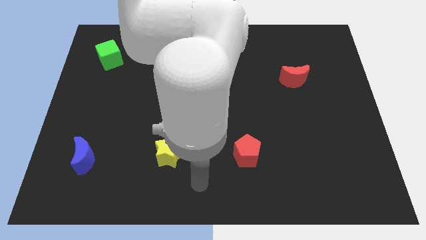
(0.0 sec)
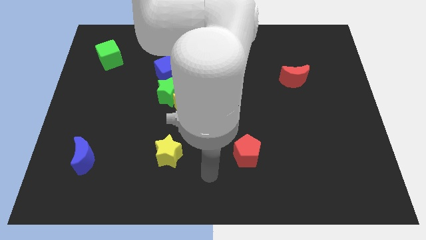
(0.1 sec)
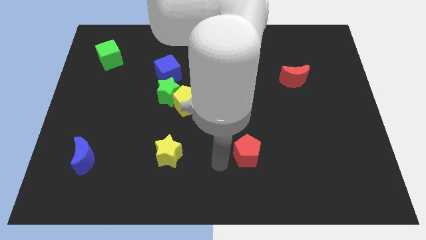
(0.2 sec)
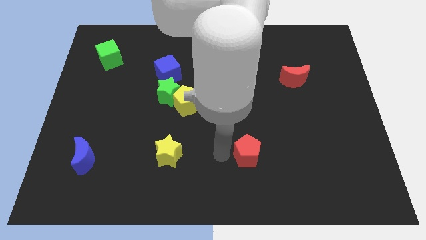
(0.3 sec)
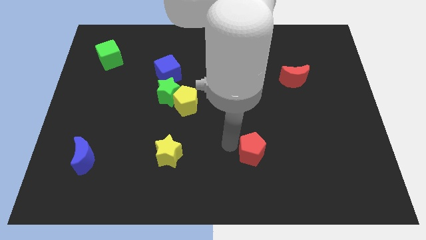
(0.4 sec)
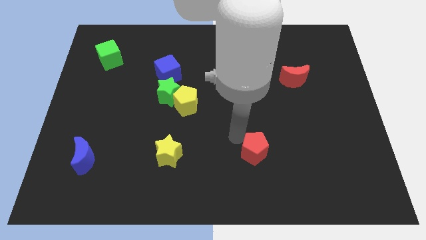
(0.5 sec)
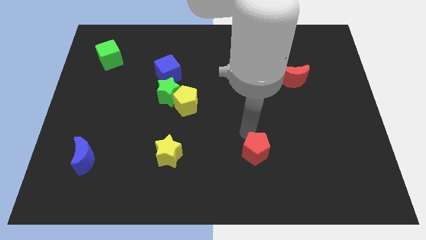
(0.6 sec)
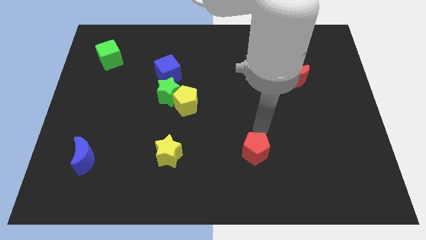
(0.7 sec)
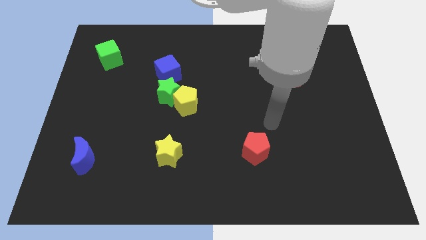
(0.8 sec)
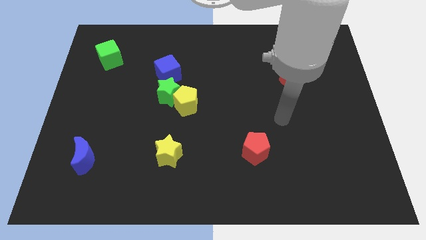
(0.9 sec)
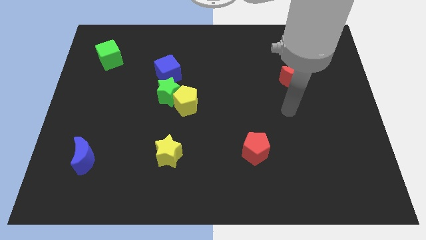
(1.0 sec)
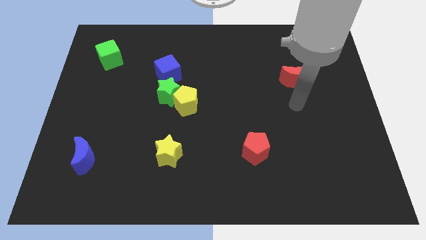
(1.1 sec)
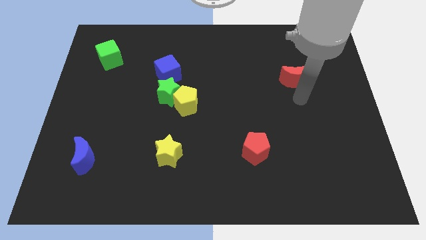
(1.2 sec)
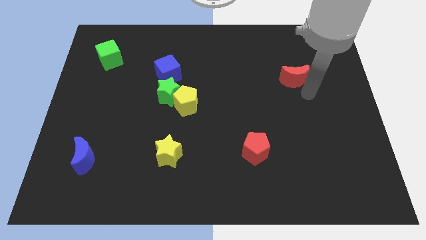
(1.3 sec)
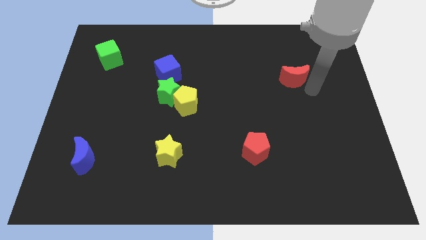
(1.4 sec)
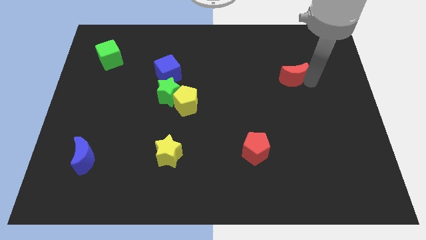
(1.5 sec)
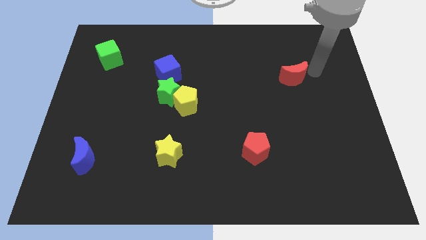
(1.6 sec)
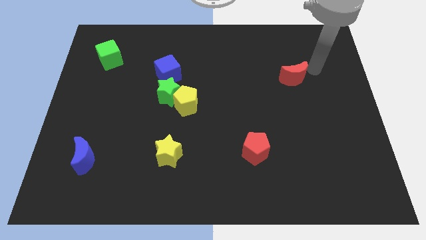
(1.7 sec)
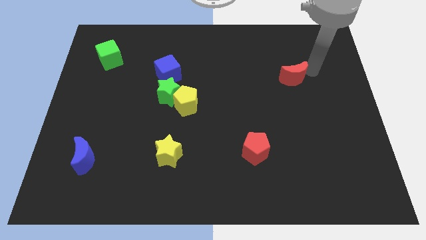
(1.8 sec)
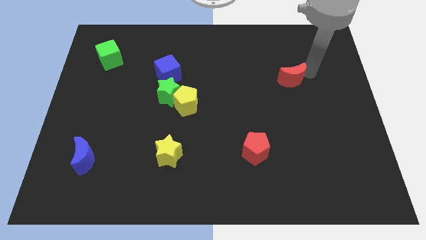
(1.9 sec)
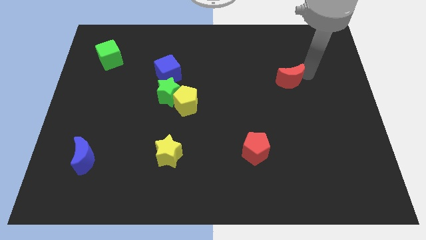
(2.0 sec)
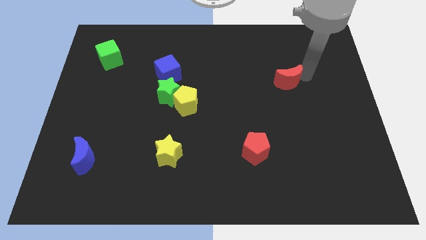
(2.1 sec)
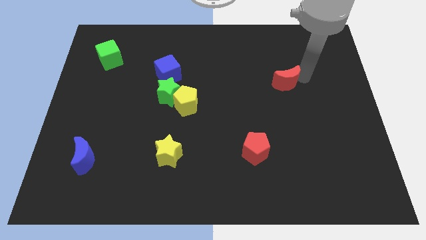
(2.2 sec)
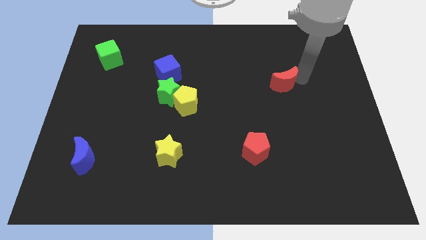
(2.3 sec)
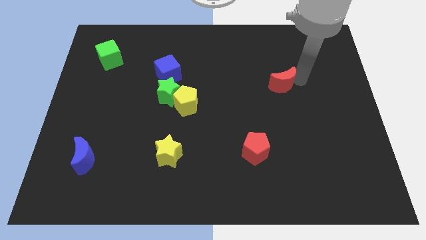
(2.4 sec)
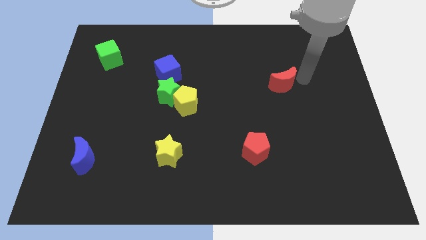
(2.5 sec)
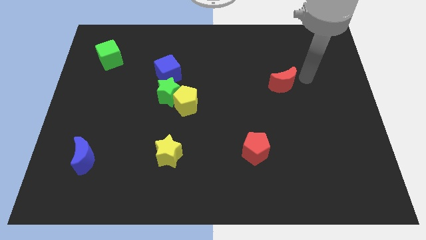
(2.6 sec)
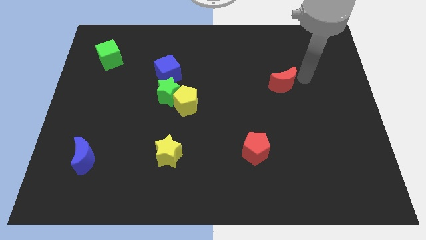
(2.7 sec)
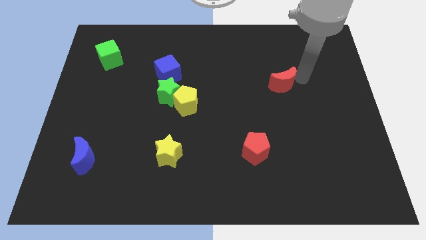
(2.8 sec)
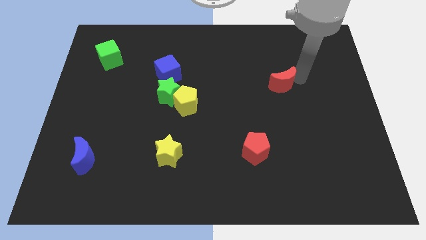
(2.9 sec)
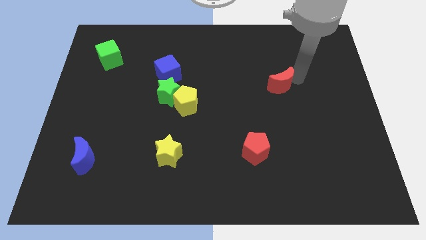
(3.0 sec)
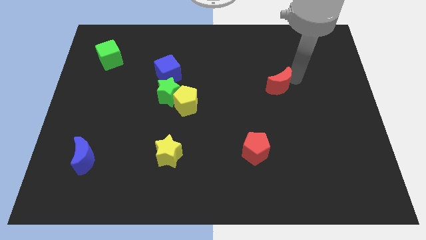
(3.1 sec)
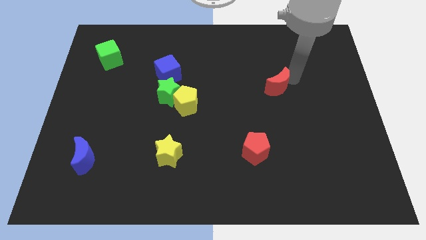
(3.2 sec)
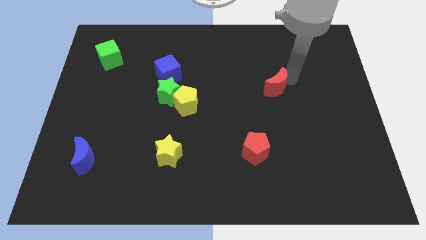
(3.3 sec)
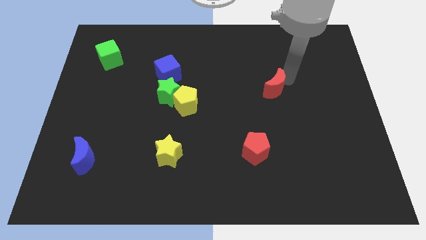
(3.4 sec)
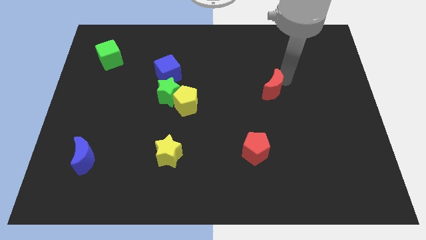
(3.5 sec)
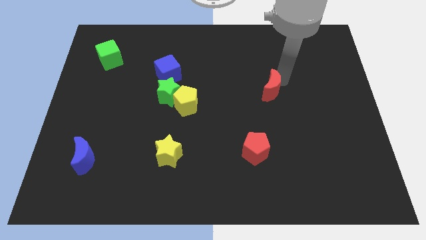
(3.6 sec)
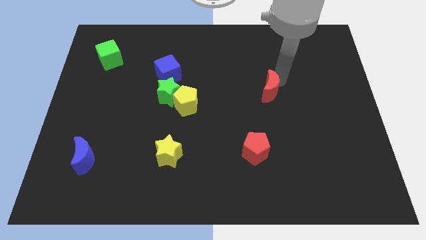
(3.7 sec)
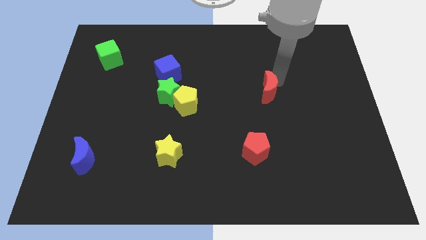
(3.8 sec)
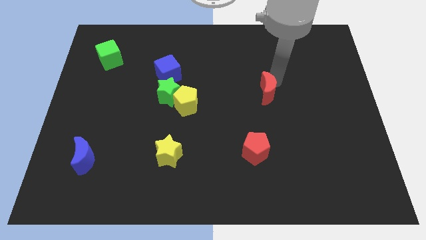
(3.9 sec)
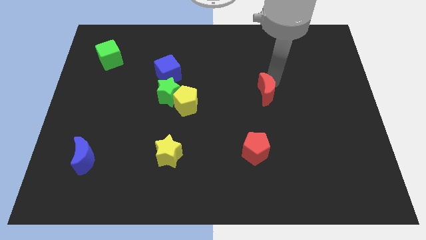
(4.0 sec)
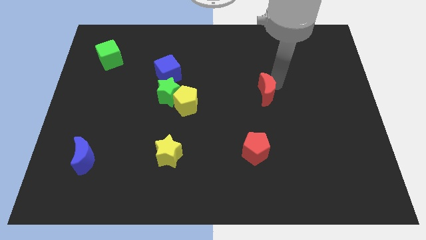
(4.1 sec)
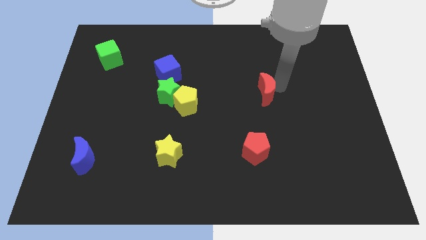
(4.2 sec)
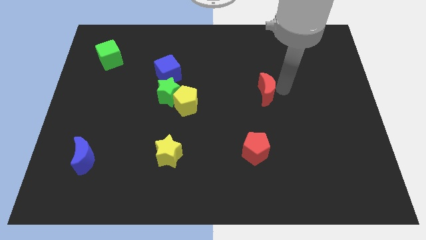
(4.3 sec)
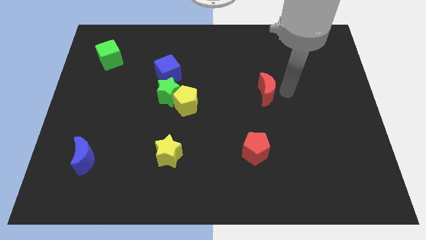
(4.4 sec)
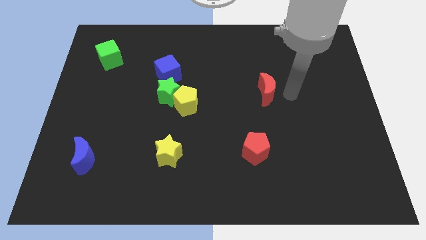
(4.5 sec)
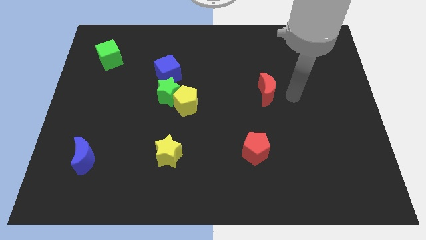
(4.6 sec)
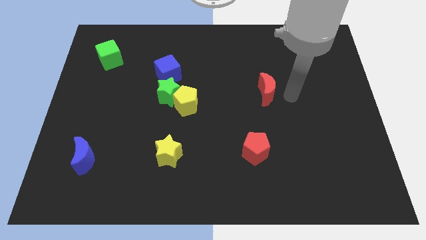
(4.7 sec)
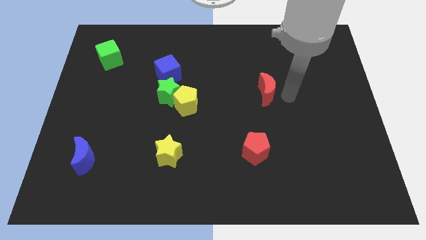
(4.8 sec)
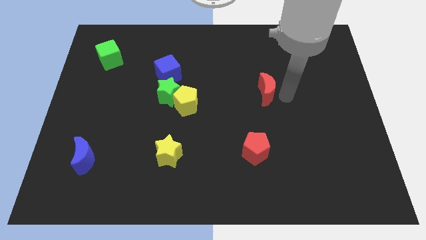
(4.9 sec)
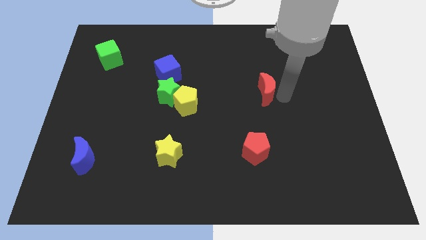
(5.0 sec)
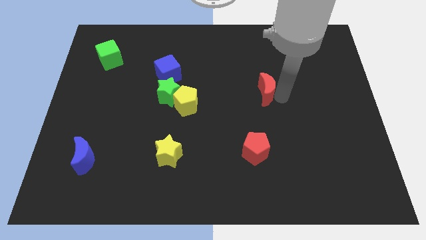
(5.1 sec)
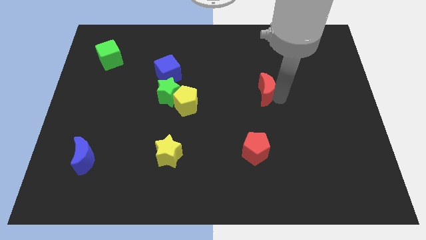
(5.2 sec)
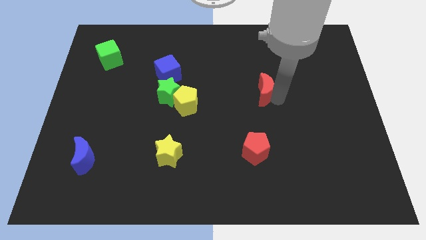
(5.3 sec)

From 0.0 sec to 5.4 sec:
push the red moon to the center

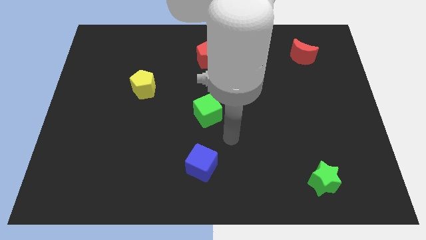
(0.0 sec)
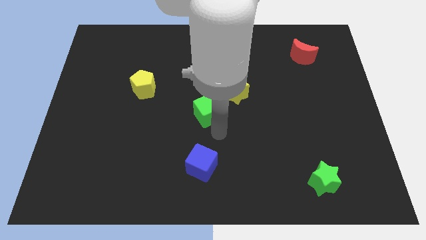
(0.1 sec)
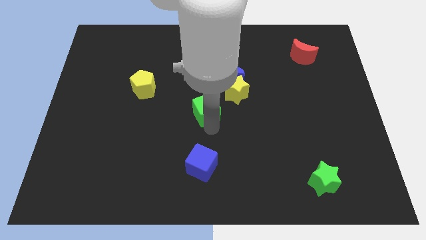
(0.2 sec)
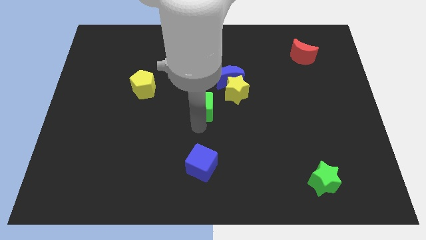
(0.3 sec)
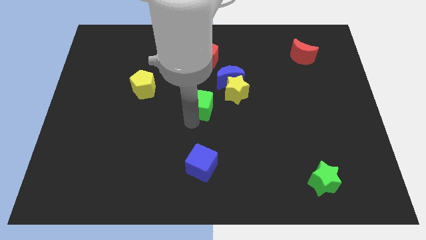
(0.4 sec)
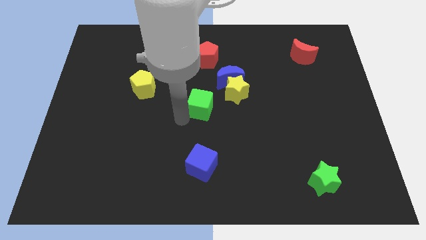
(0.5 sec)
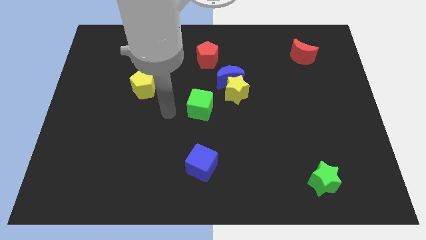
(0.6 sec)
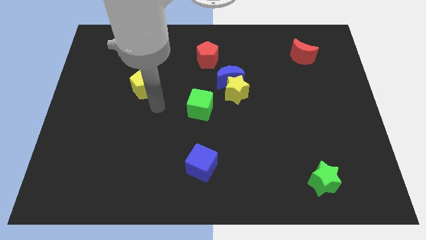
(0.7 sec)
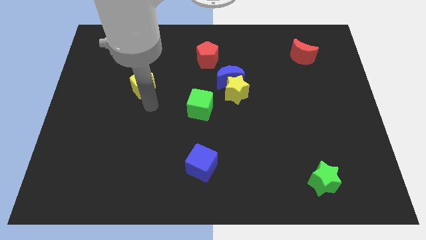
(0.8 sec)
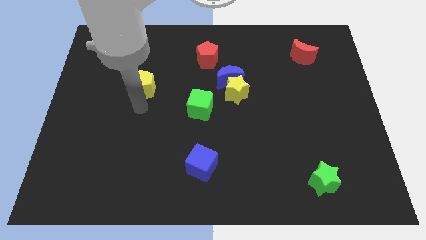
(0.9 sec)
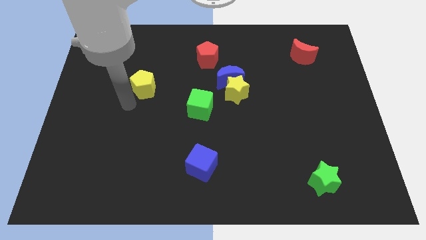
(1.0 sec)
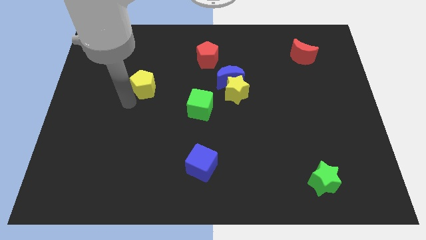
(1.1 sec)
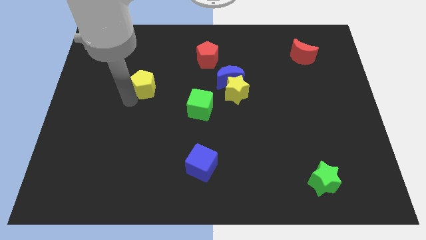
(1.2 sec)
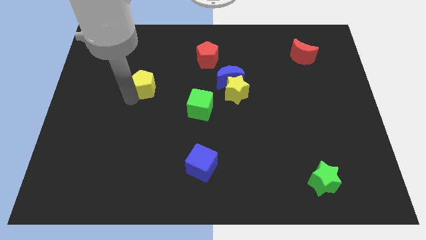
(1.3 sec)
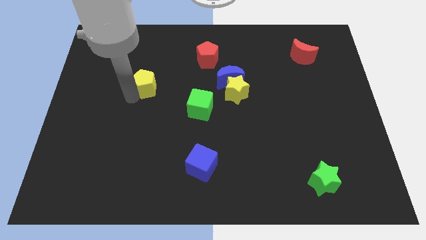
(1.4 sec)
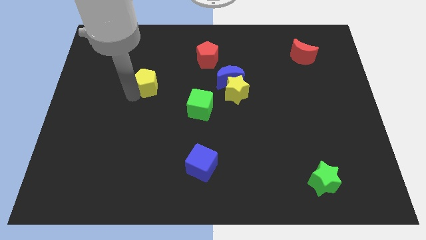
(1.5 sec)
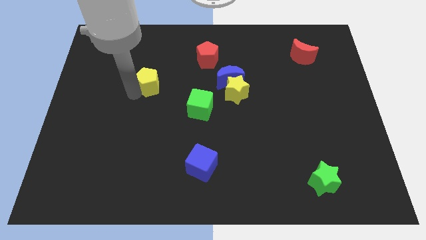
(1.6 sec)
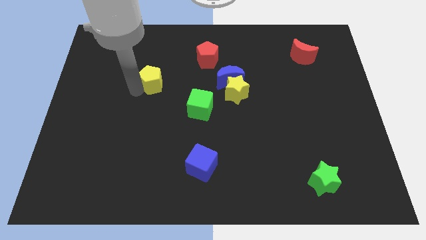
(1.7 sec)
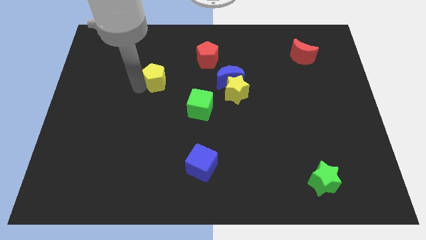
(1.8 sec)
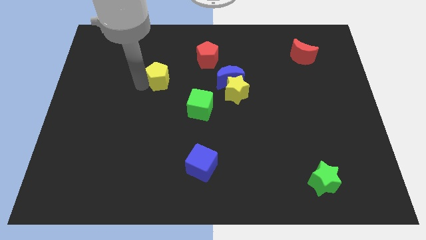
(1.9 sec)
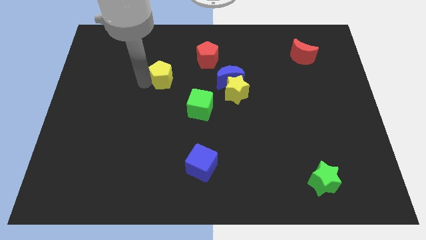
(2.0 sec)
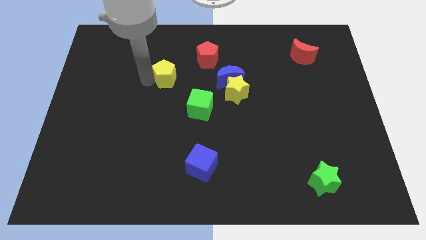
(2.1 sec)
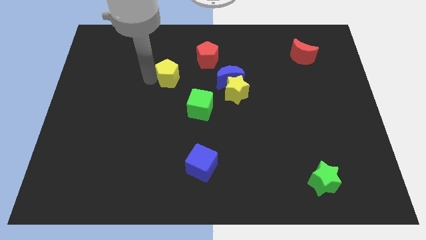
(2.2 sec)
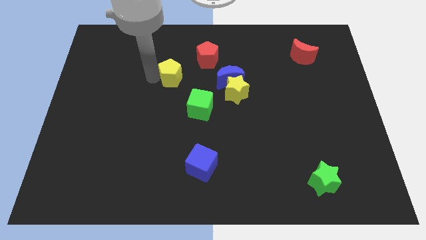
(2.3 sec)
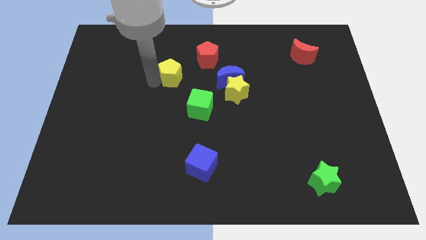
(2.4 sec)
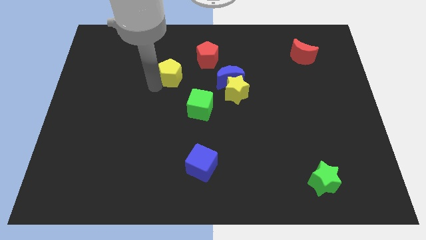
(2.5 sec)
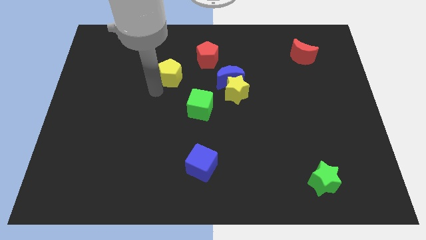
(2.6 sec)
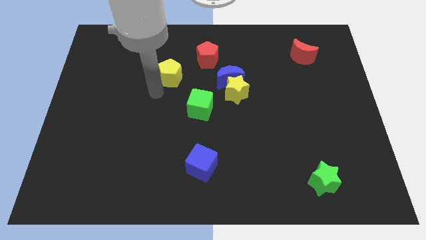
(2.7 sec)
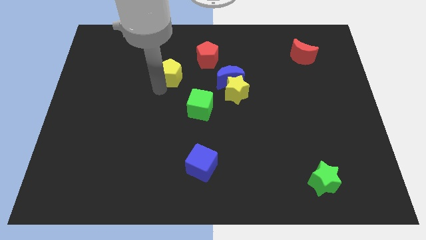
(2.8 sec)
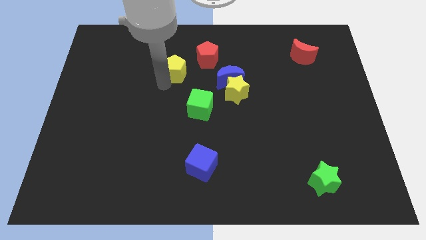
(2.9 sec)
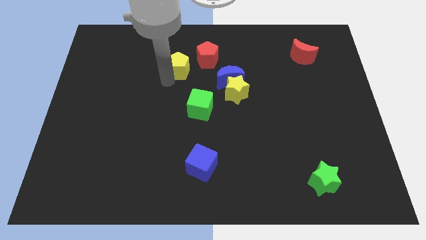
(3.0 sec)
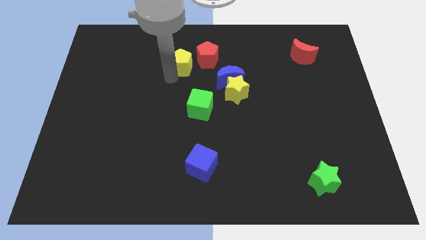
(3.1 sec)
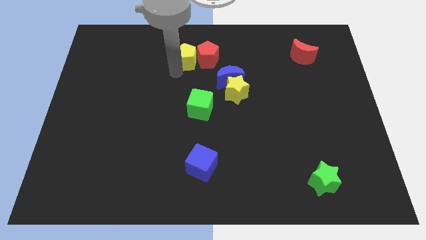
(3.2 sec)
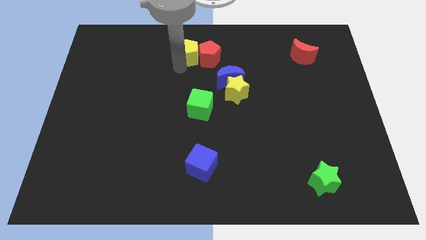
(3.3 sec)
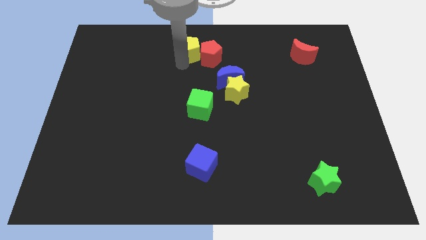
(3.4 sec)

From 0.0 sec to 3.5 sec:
move the yellow pentagon to the top
